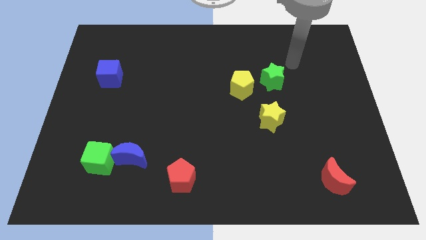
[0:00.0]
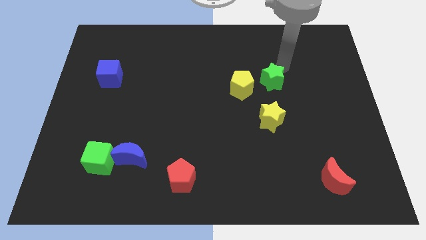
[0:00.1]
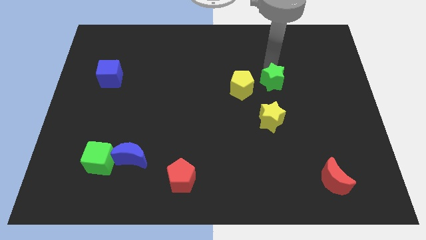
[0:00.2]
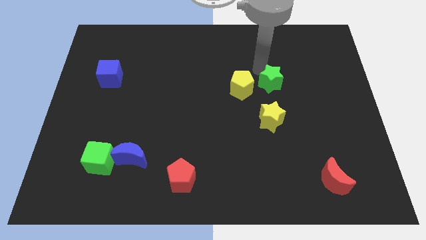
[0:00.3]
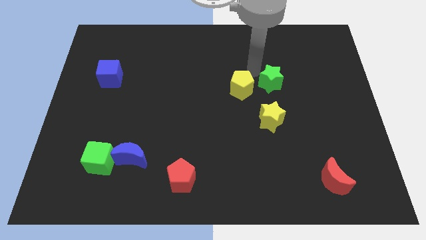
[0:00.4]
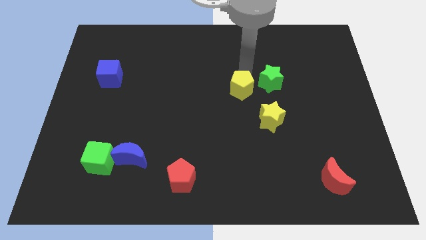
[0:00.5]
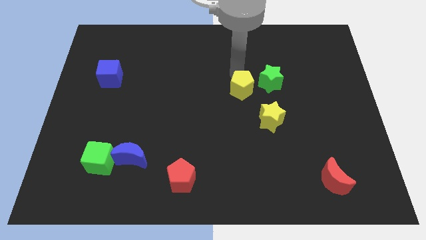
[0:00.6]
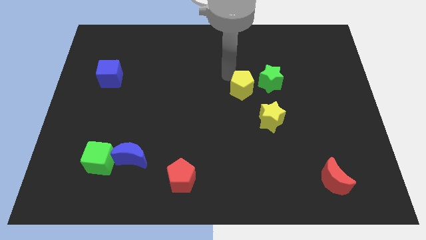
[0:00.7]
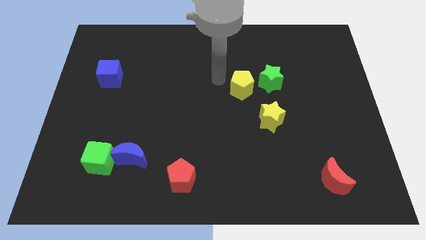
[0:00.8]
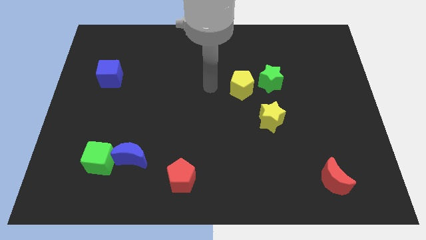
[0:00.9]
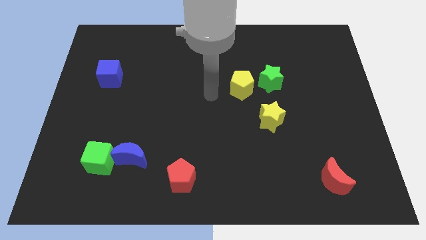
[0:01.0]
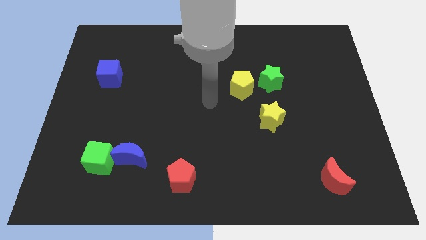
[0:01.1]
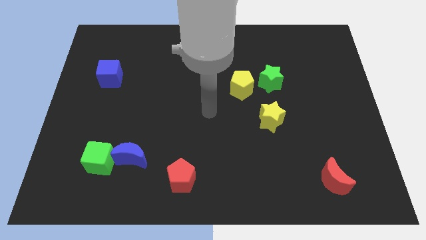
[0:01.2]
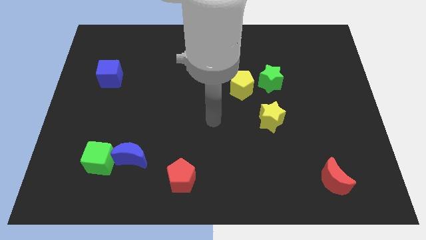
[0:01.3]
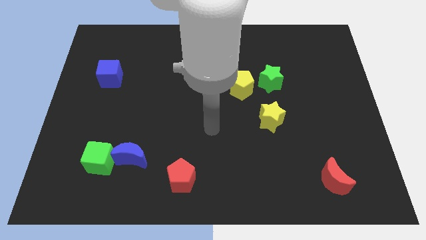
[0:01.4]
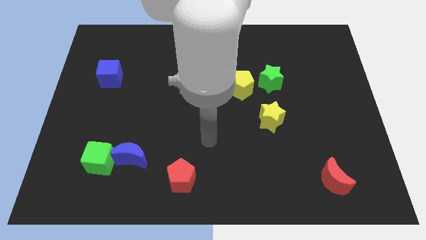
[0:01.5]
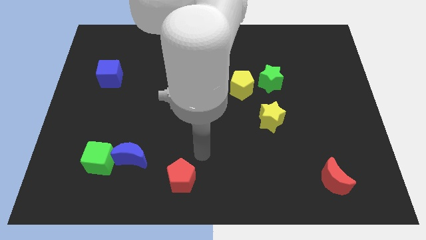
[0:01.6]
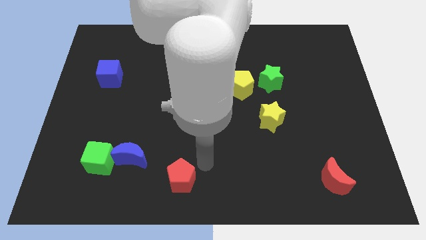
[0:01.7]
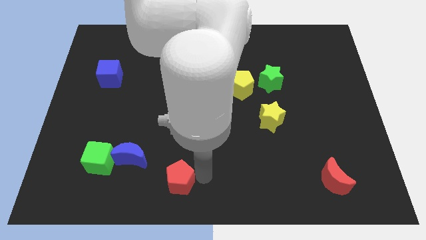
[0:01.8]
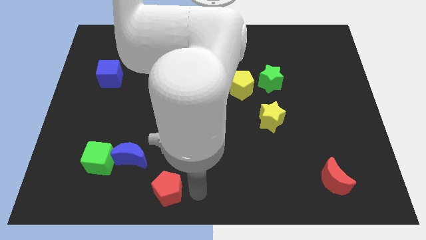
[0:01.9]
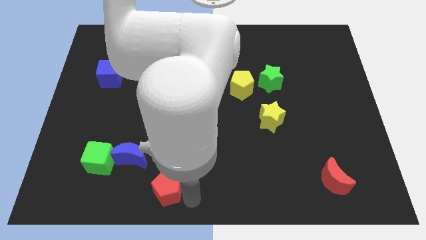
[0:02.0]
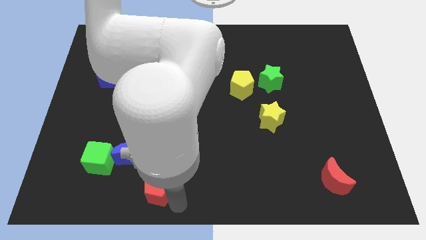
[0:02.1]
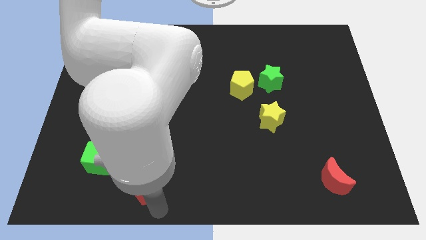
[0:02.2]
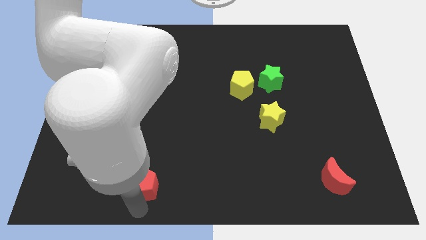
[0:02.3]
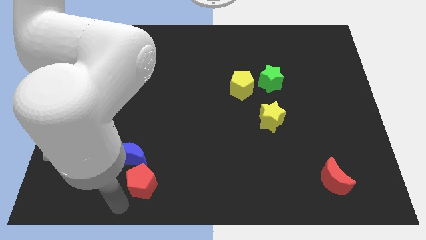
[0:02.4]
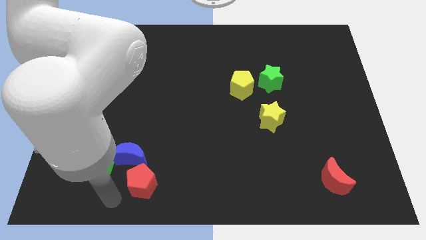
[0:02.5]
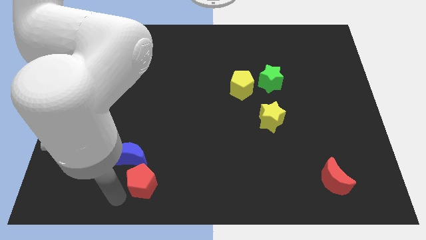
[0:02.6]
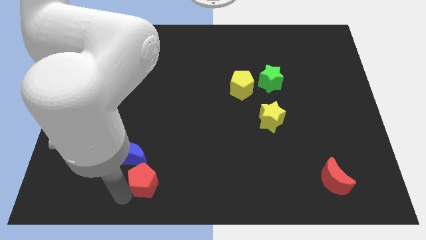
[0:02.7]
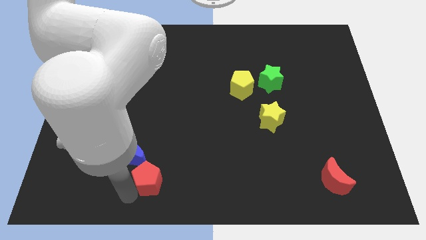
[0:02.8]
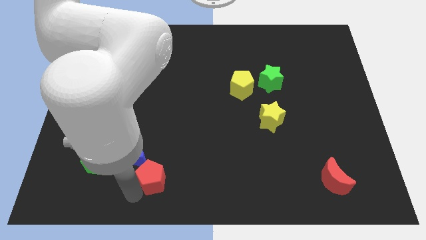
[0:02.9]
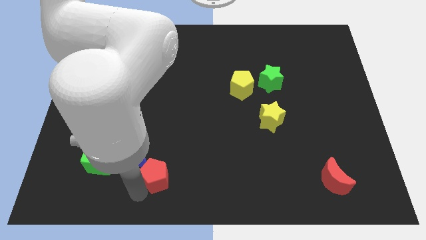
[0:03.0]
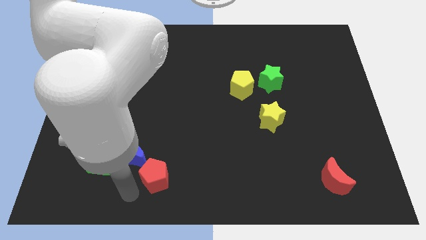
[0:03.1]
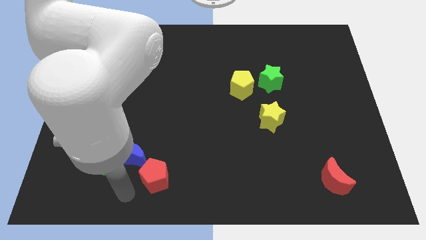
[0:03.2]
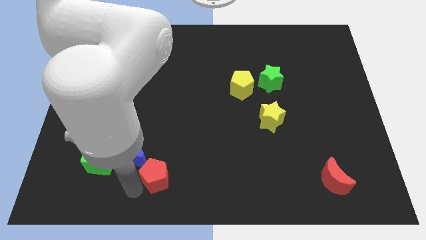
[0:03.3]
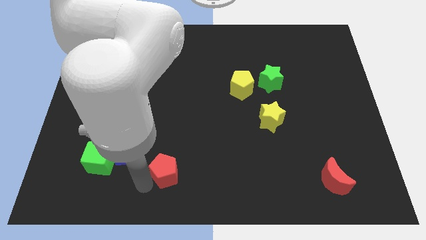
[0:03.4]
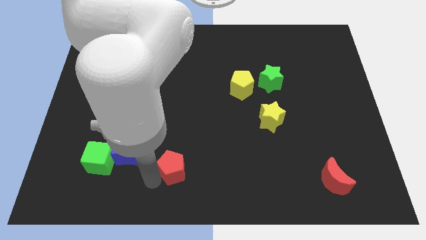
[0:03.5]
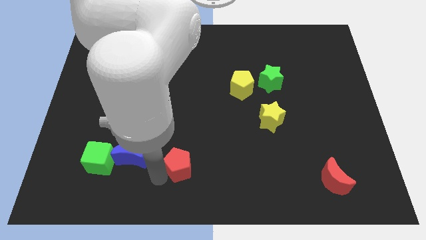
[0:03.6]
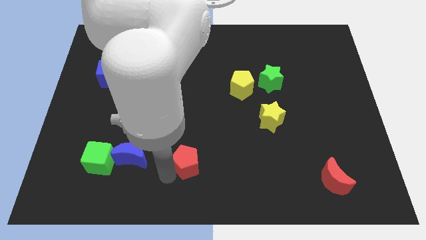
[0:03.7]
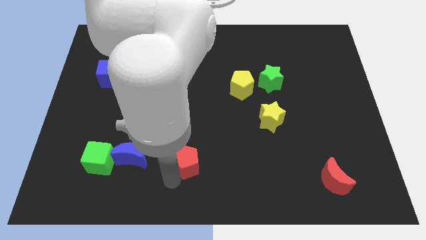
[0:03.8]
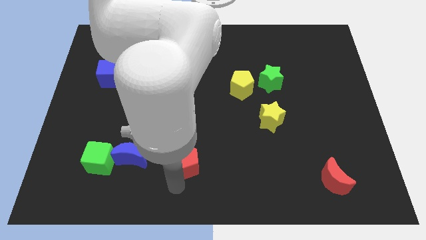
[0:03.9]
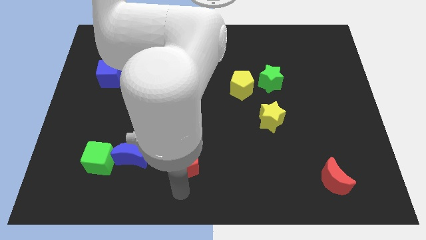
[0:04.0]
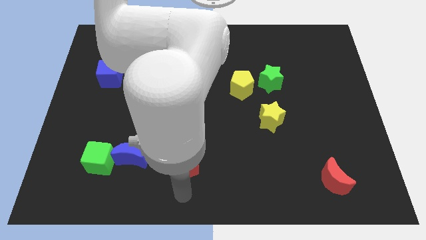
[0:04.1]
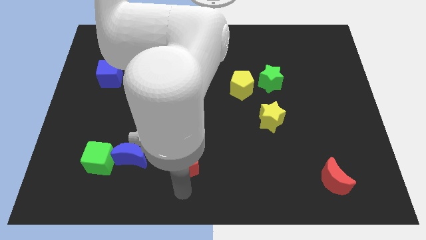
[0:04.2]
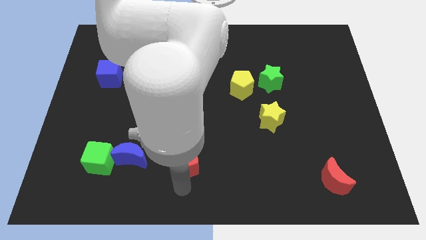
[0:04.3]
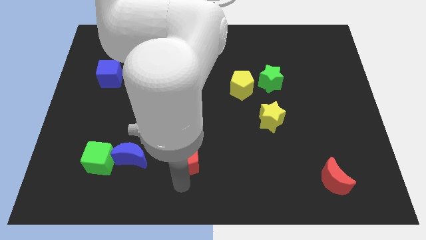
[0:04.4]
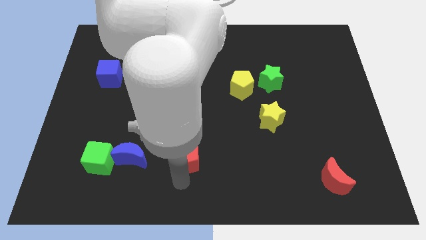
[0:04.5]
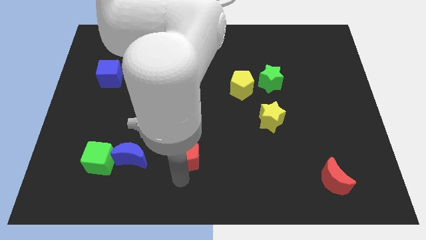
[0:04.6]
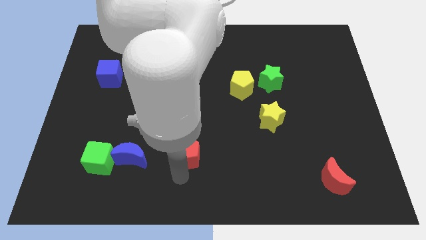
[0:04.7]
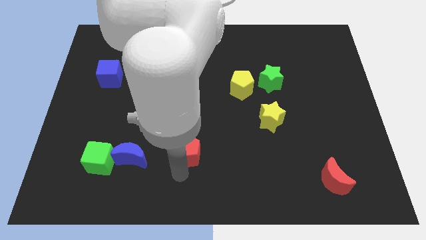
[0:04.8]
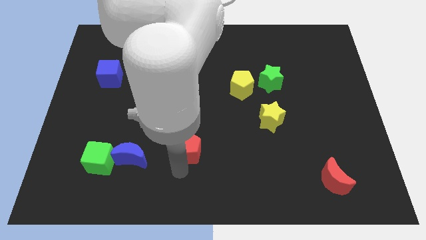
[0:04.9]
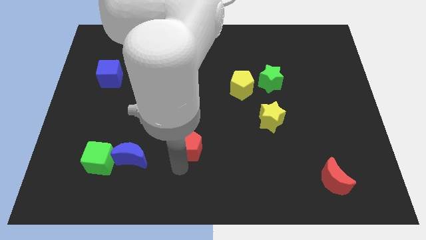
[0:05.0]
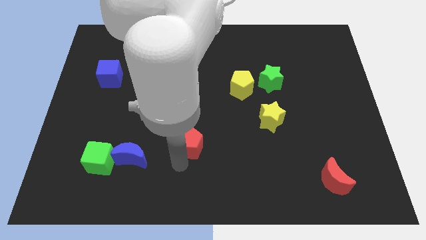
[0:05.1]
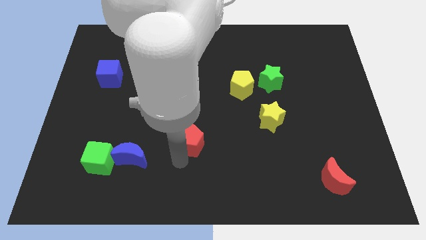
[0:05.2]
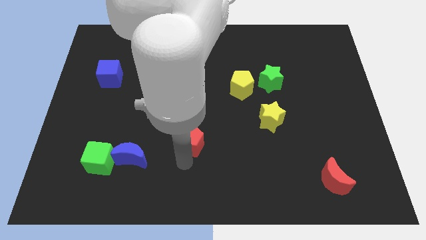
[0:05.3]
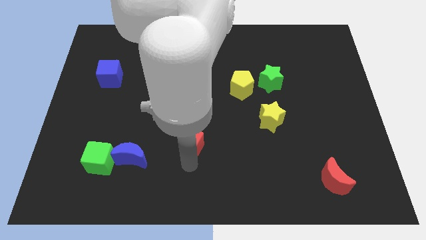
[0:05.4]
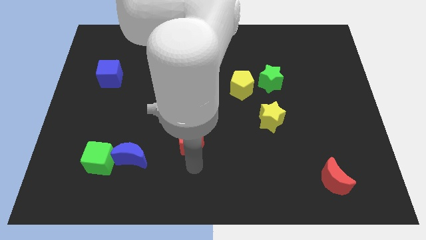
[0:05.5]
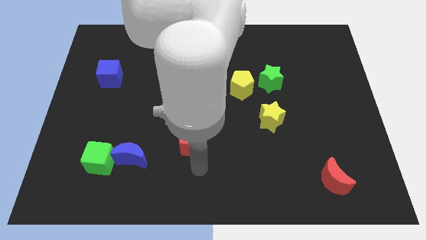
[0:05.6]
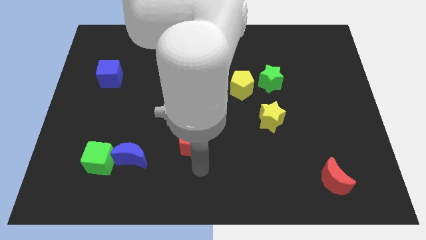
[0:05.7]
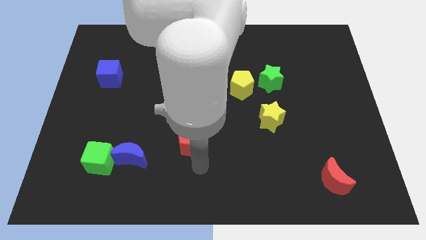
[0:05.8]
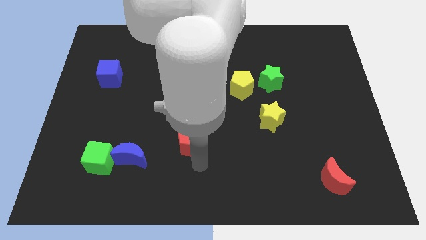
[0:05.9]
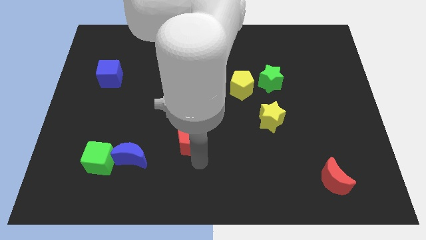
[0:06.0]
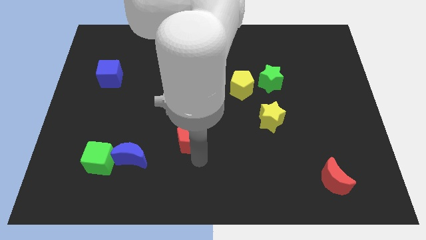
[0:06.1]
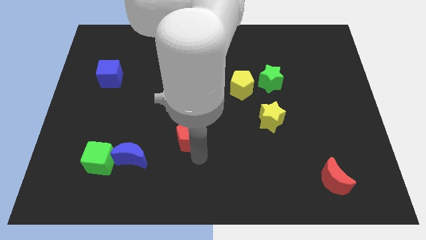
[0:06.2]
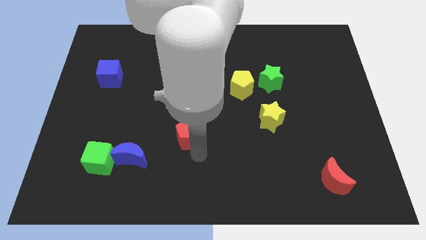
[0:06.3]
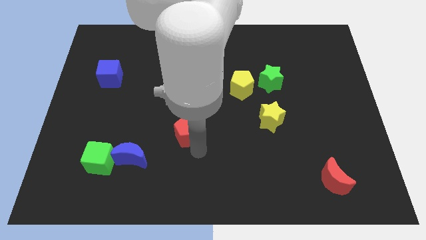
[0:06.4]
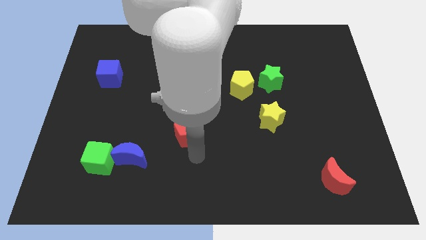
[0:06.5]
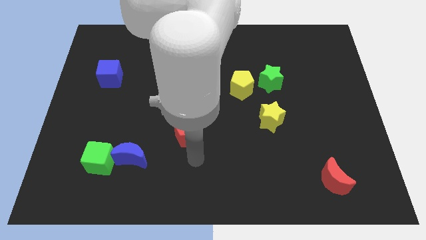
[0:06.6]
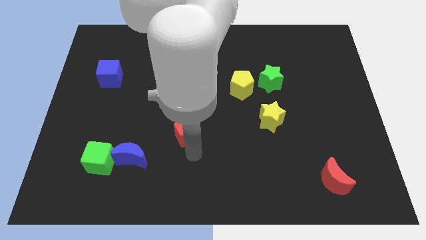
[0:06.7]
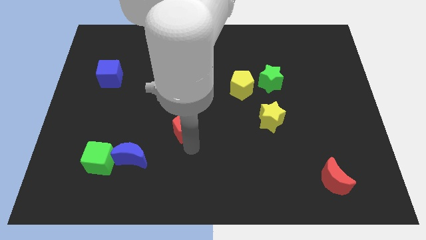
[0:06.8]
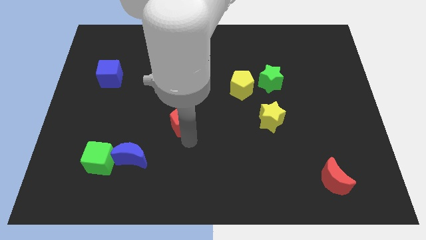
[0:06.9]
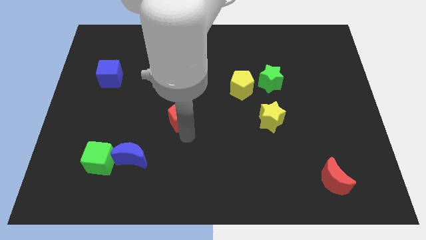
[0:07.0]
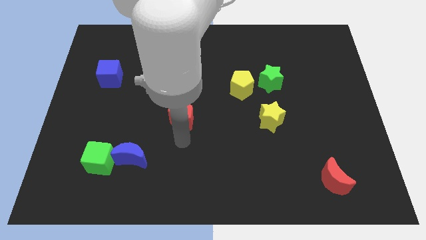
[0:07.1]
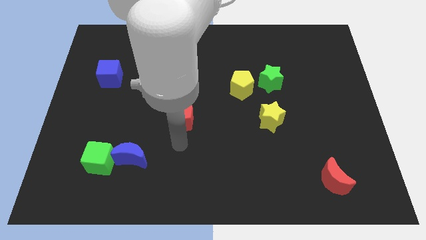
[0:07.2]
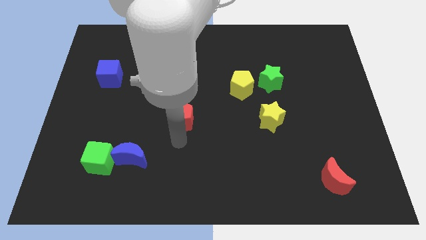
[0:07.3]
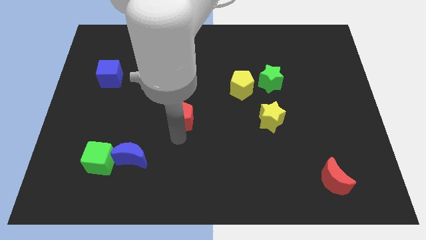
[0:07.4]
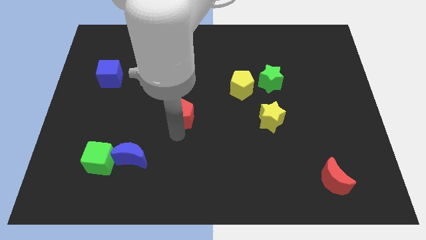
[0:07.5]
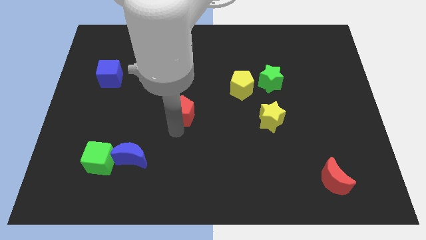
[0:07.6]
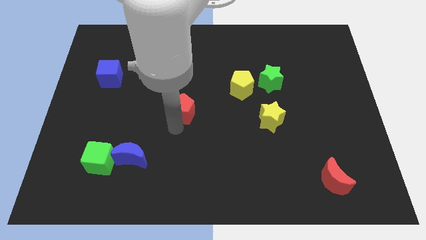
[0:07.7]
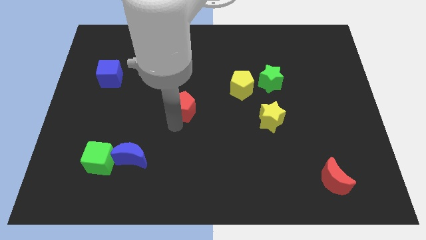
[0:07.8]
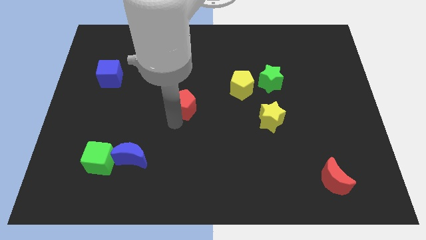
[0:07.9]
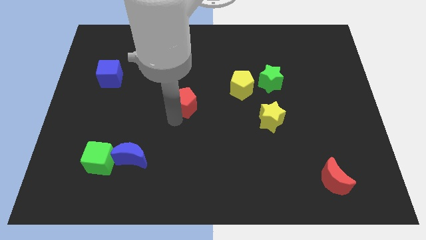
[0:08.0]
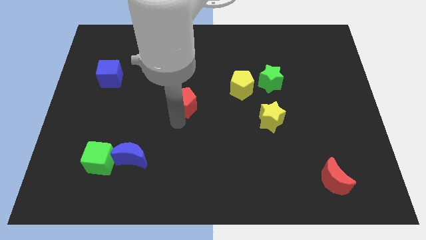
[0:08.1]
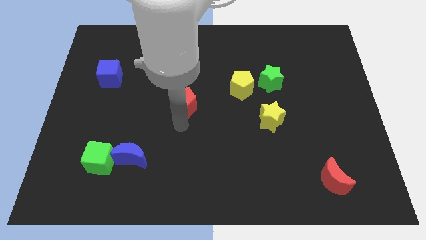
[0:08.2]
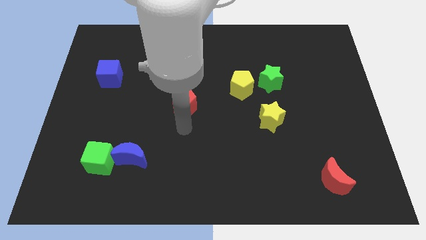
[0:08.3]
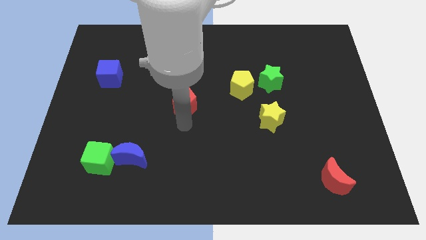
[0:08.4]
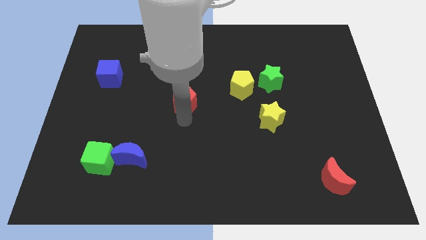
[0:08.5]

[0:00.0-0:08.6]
slide the red pentagon upwards
